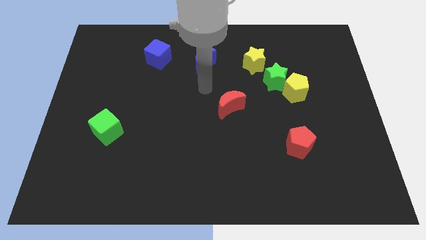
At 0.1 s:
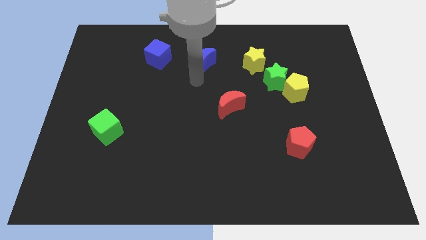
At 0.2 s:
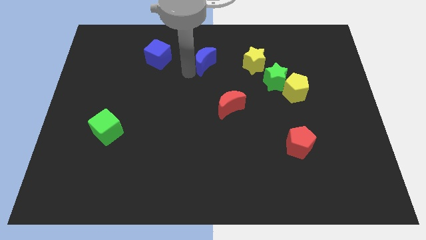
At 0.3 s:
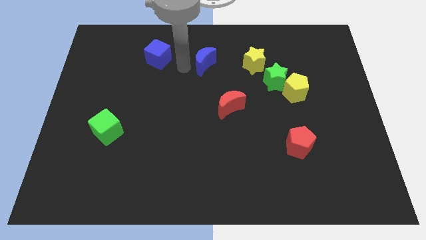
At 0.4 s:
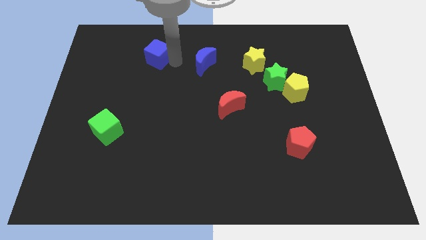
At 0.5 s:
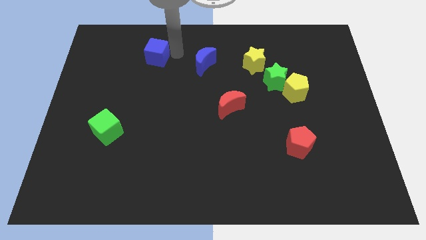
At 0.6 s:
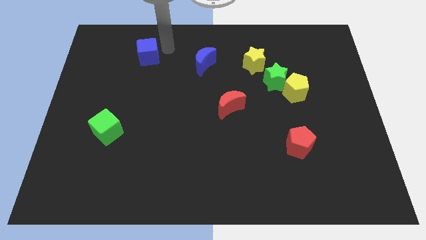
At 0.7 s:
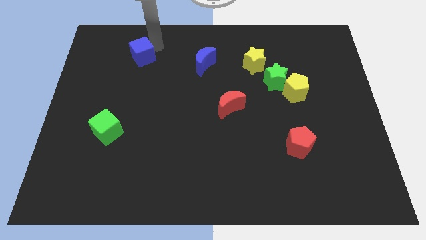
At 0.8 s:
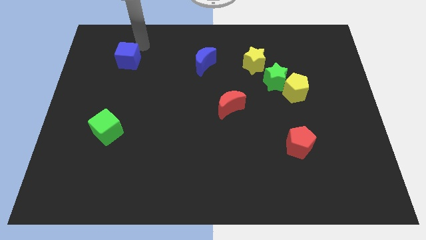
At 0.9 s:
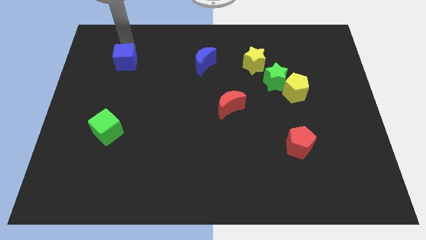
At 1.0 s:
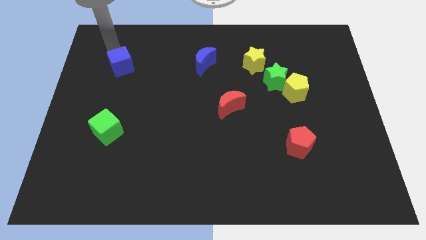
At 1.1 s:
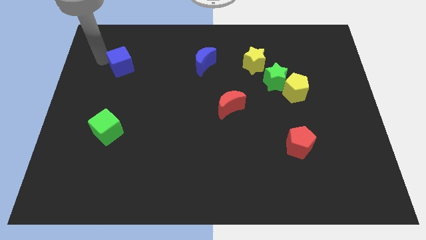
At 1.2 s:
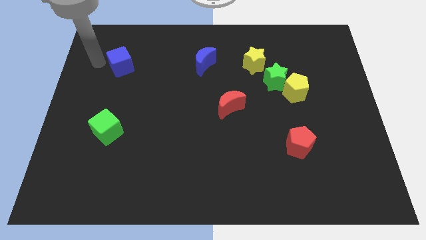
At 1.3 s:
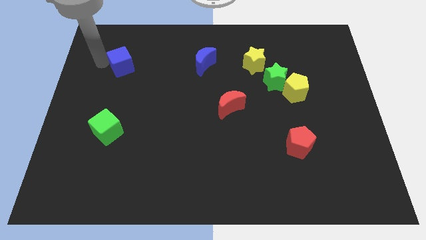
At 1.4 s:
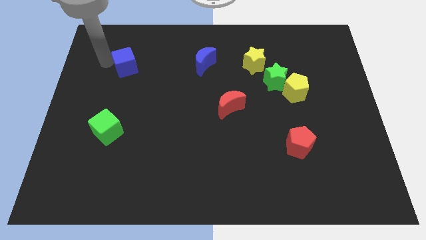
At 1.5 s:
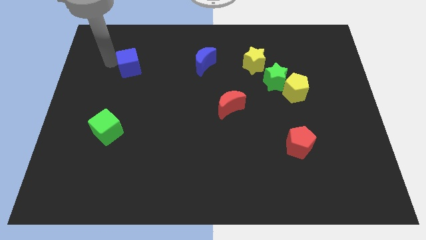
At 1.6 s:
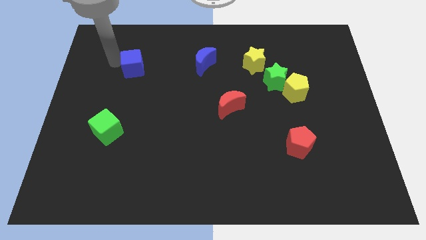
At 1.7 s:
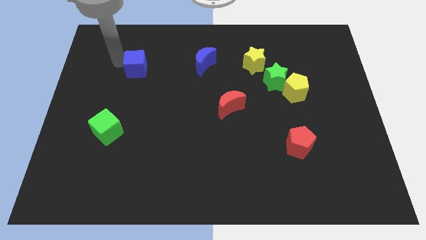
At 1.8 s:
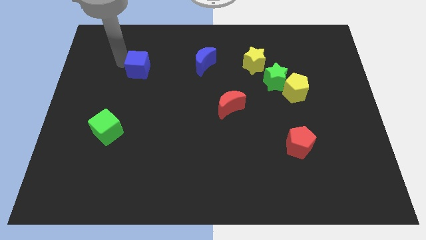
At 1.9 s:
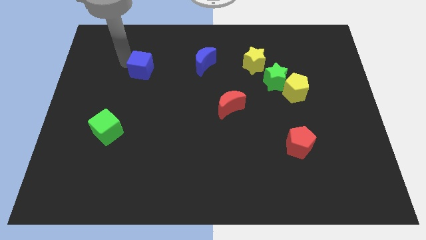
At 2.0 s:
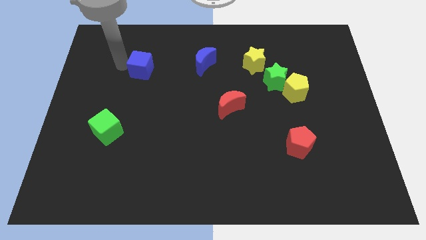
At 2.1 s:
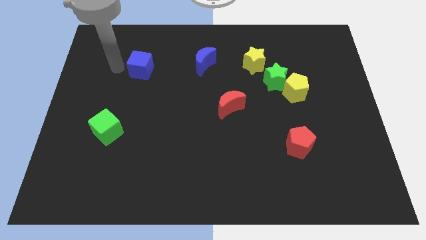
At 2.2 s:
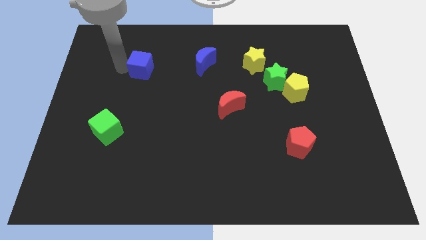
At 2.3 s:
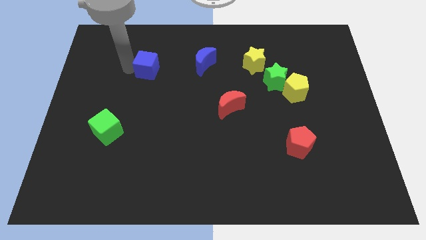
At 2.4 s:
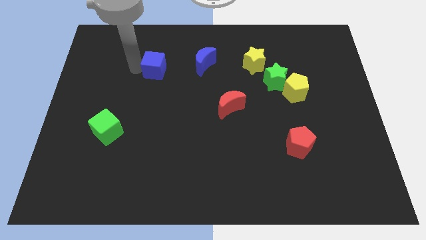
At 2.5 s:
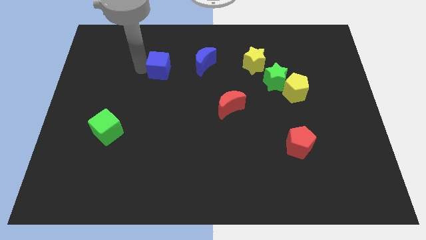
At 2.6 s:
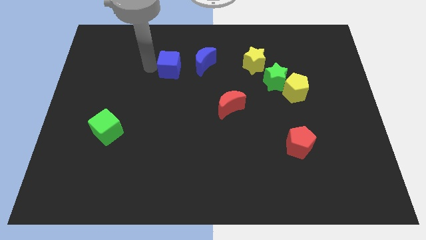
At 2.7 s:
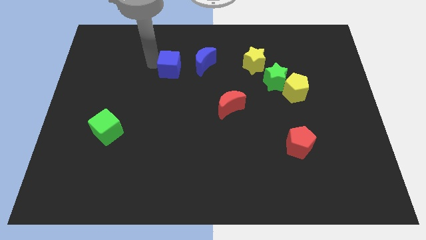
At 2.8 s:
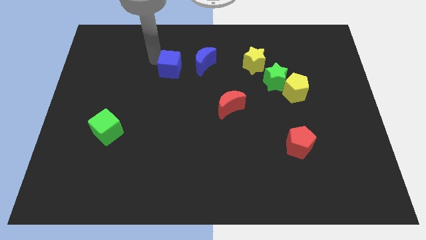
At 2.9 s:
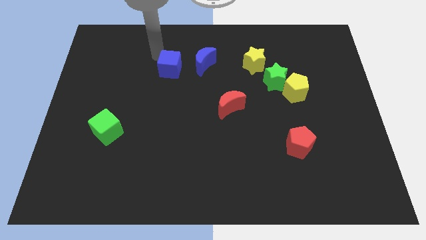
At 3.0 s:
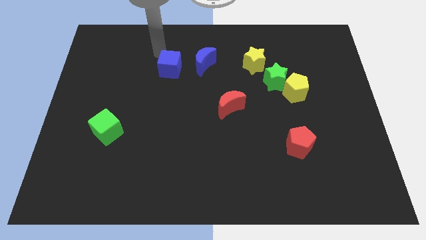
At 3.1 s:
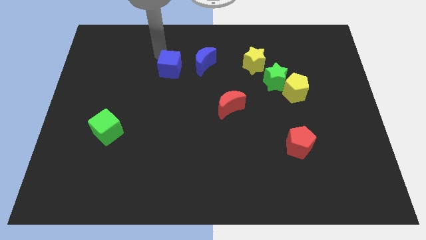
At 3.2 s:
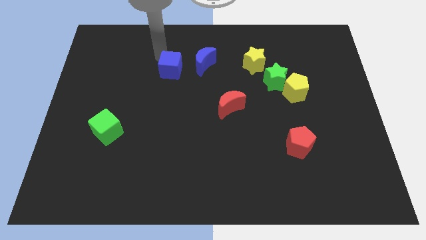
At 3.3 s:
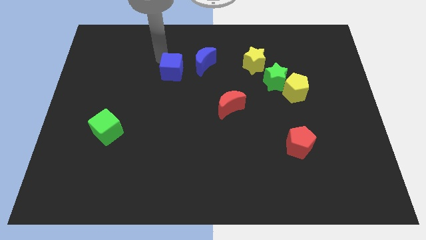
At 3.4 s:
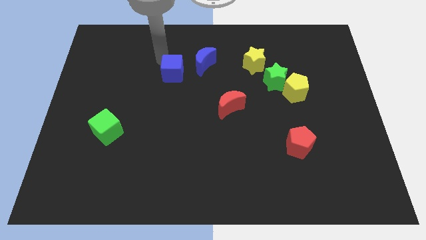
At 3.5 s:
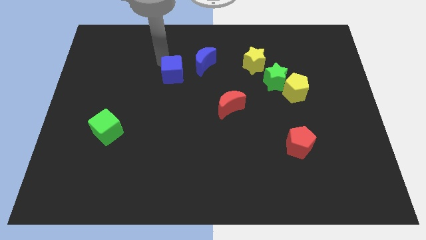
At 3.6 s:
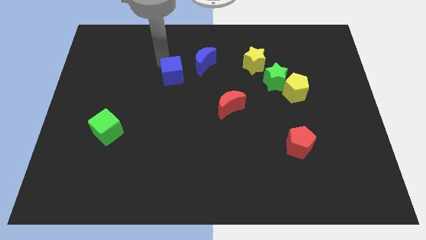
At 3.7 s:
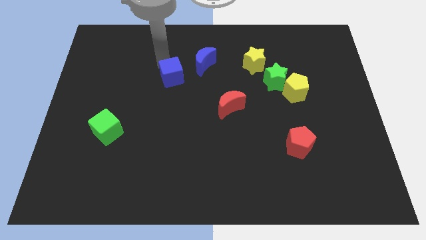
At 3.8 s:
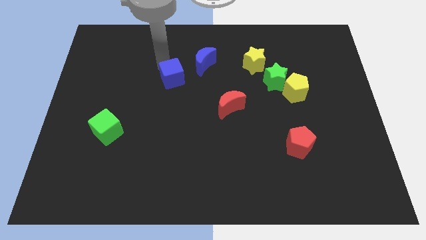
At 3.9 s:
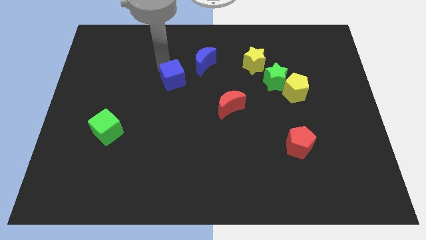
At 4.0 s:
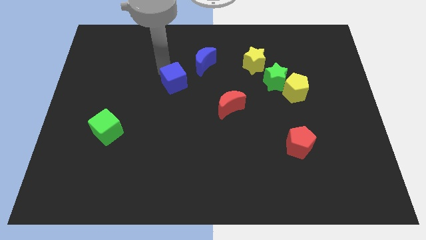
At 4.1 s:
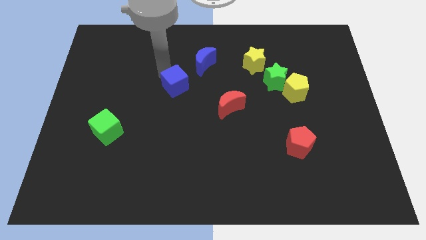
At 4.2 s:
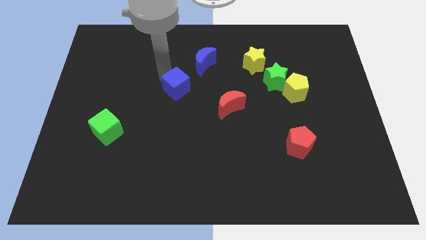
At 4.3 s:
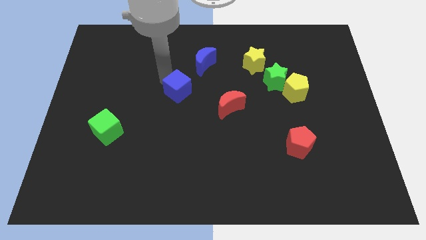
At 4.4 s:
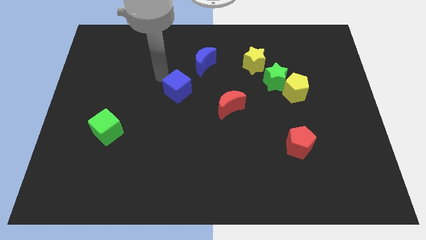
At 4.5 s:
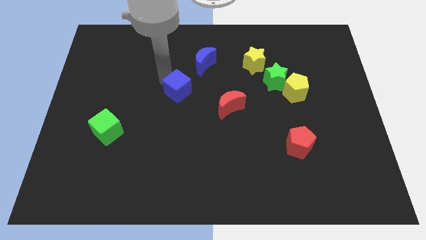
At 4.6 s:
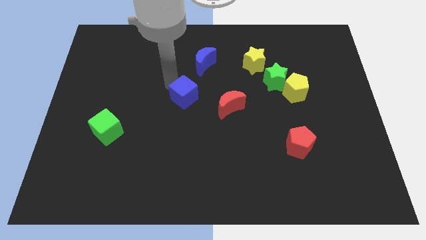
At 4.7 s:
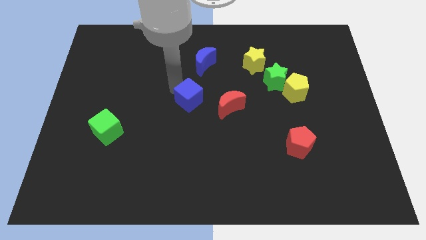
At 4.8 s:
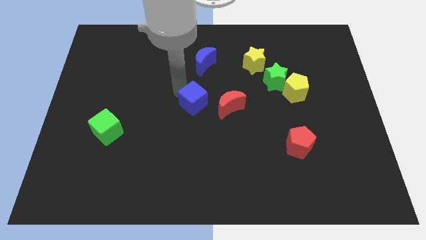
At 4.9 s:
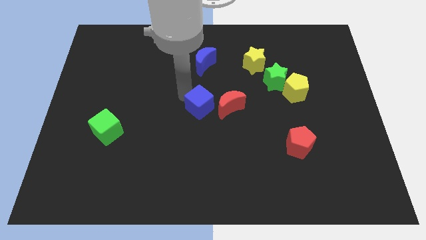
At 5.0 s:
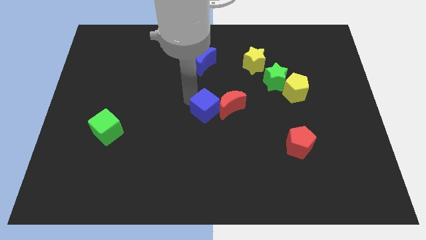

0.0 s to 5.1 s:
move the blue cube down and then right

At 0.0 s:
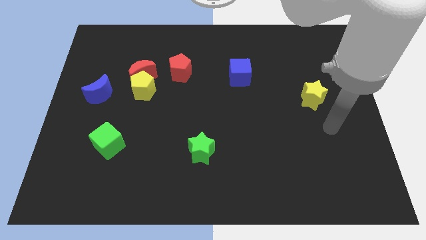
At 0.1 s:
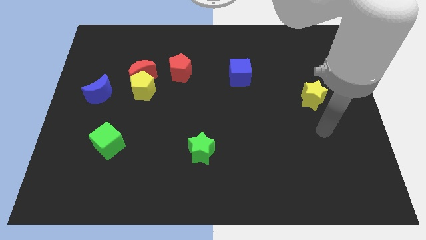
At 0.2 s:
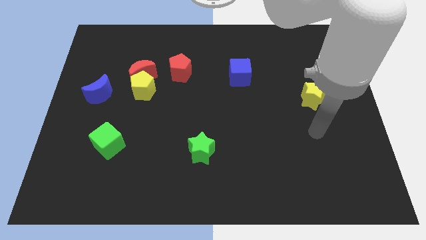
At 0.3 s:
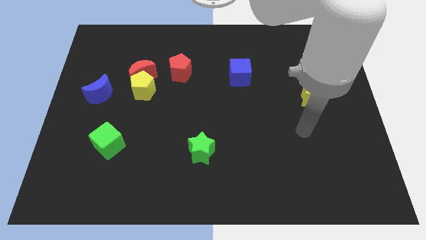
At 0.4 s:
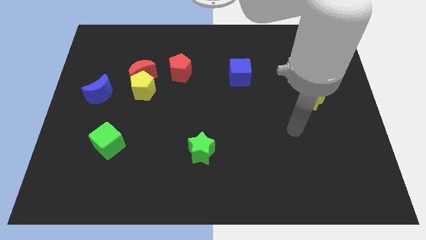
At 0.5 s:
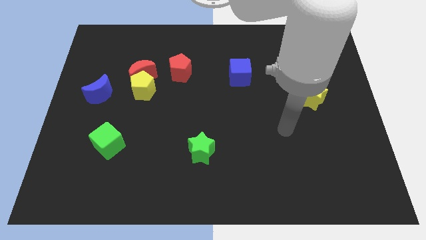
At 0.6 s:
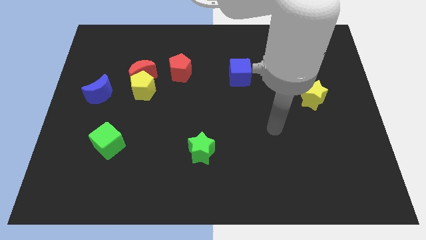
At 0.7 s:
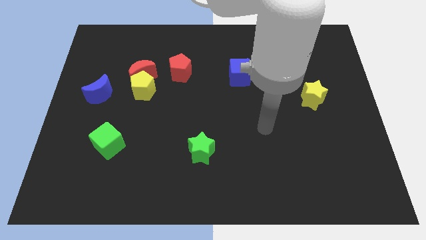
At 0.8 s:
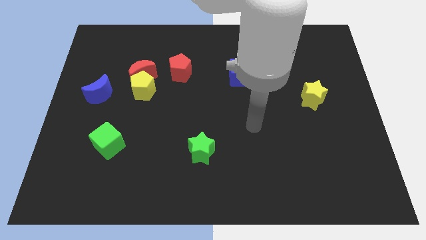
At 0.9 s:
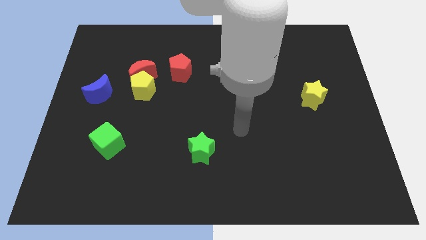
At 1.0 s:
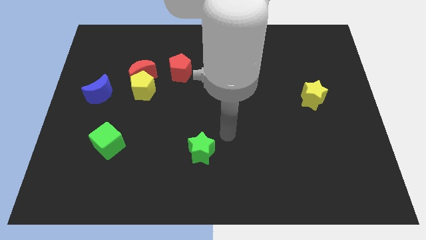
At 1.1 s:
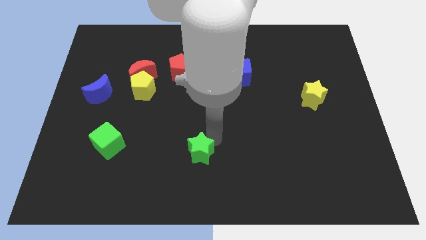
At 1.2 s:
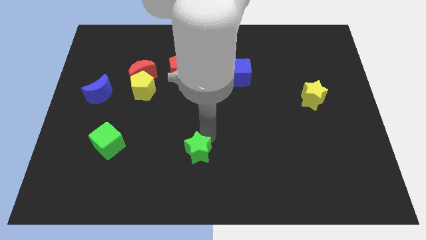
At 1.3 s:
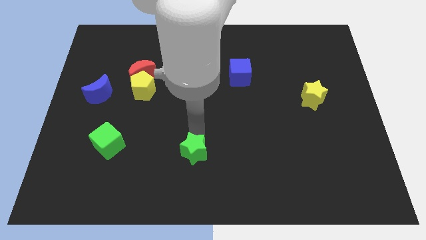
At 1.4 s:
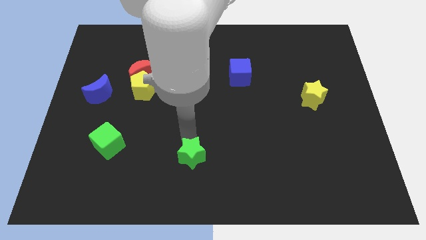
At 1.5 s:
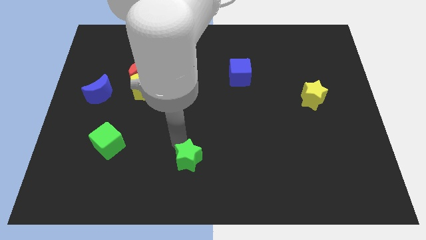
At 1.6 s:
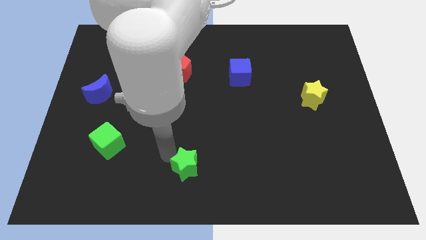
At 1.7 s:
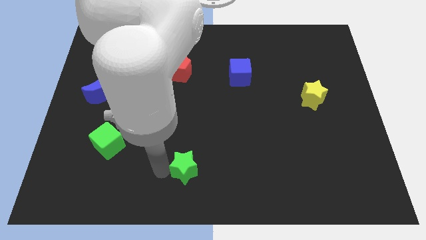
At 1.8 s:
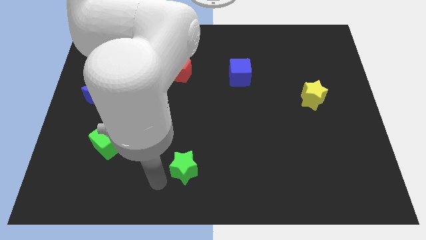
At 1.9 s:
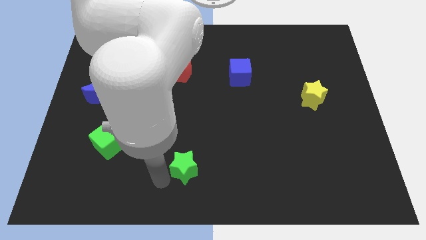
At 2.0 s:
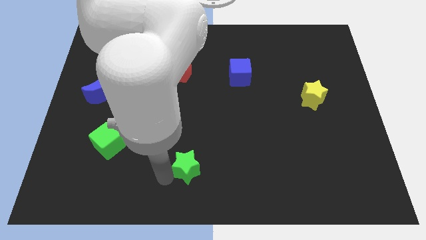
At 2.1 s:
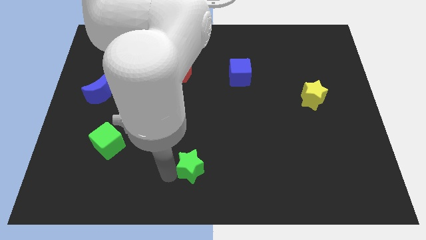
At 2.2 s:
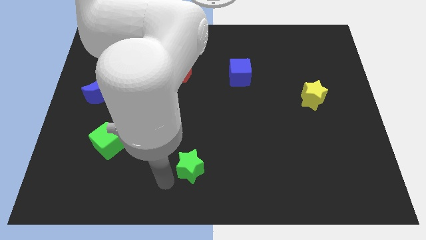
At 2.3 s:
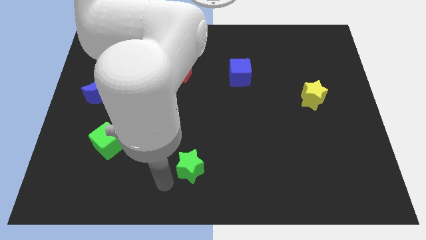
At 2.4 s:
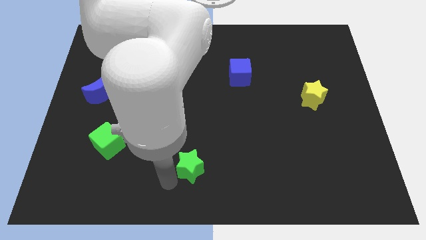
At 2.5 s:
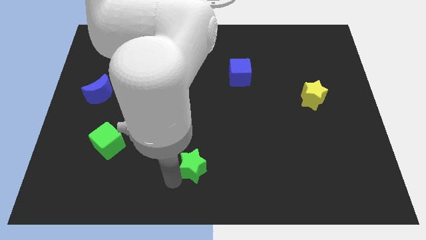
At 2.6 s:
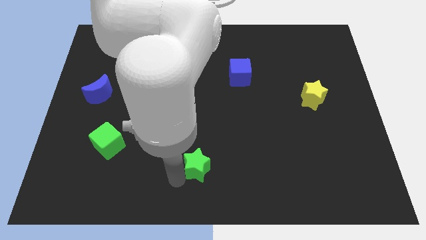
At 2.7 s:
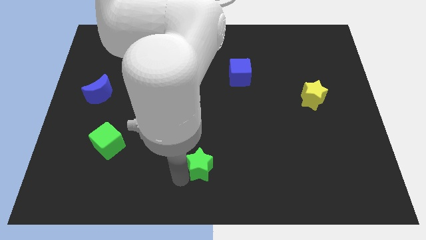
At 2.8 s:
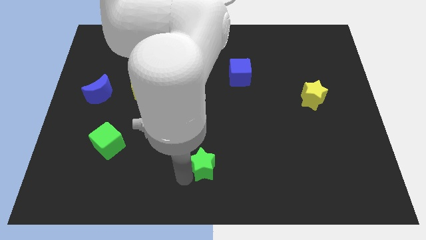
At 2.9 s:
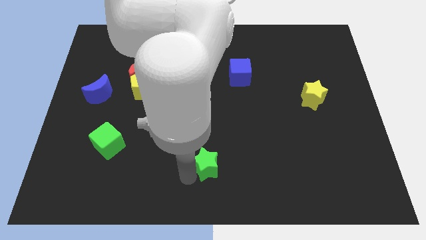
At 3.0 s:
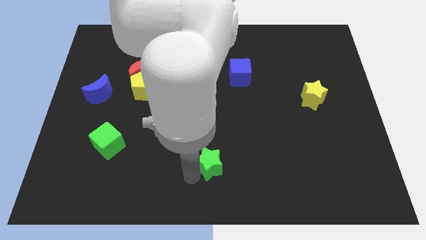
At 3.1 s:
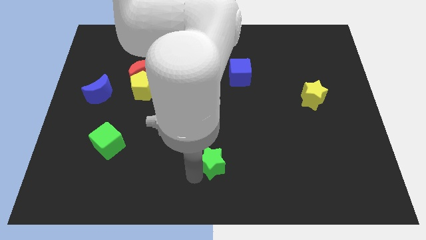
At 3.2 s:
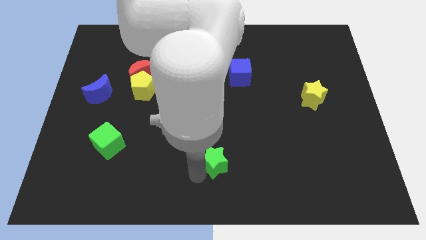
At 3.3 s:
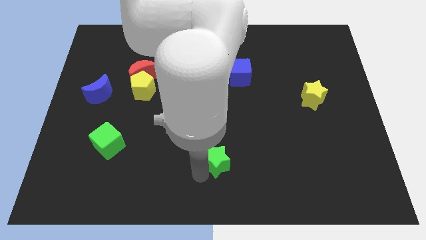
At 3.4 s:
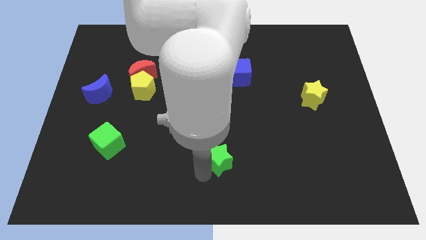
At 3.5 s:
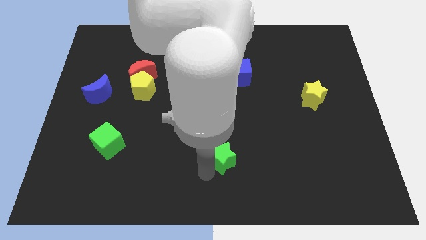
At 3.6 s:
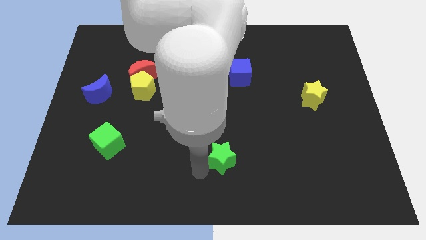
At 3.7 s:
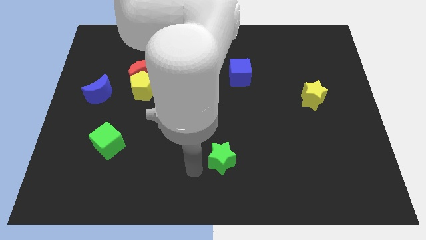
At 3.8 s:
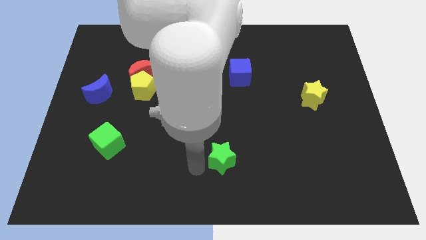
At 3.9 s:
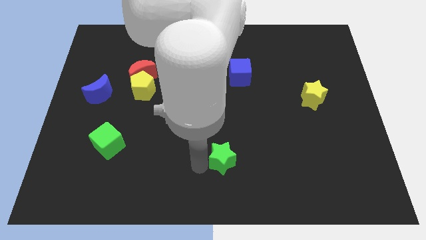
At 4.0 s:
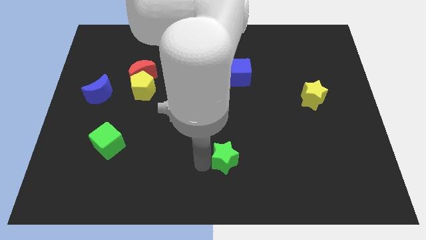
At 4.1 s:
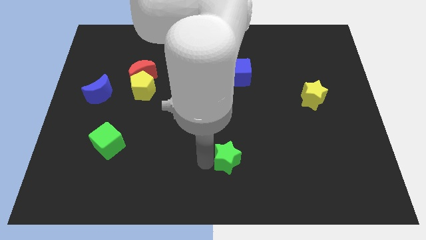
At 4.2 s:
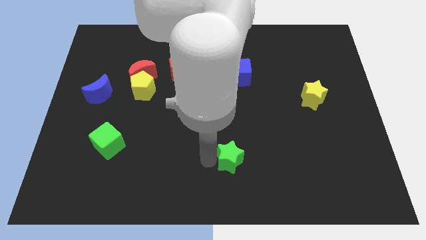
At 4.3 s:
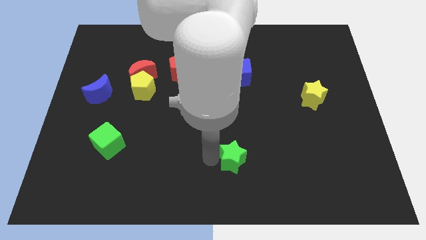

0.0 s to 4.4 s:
slightly move the green star right
